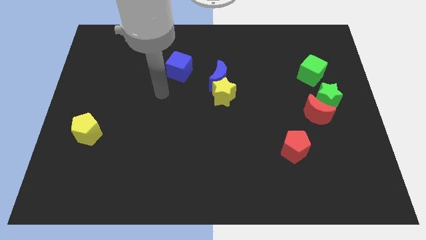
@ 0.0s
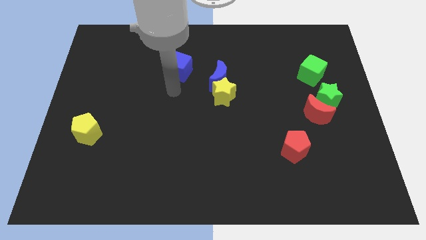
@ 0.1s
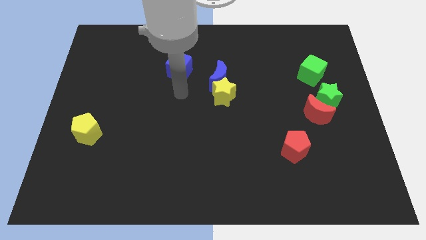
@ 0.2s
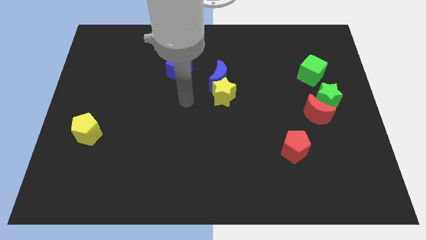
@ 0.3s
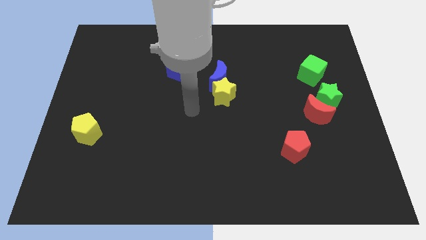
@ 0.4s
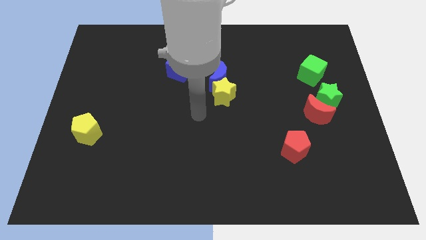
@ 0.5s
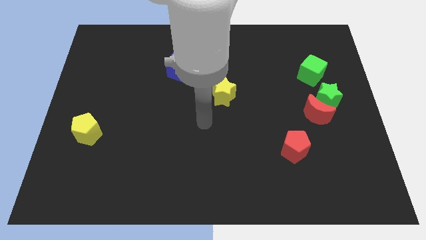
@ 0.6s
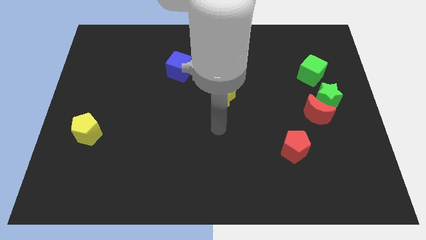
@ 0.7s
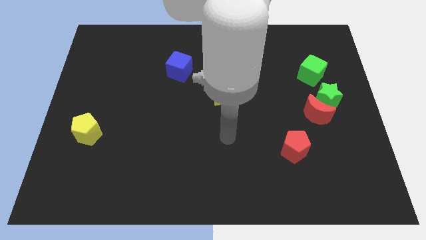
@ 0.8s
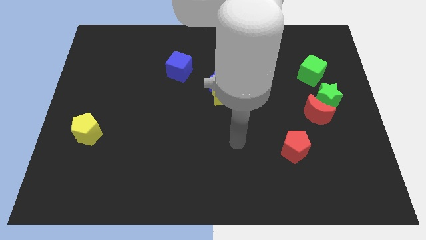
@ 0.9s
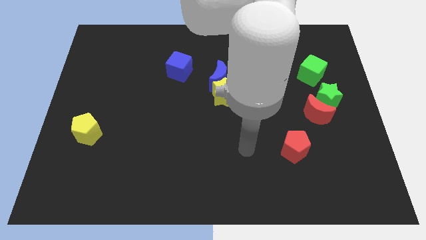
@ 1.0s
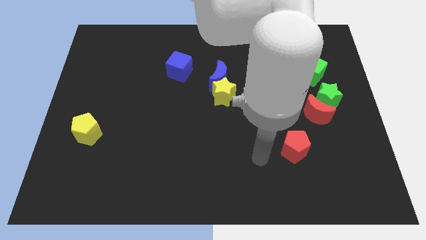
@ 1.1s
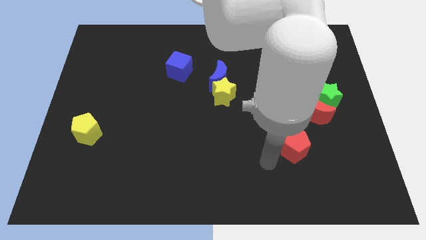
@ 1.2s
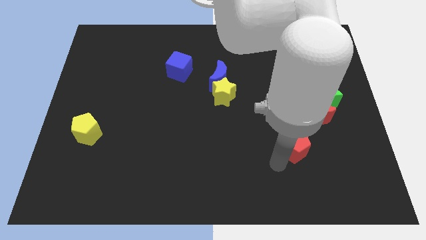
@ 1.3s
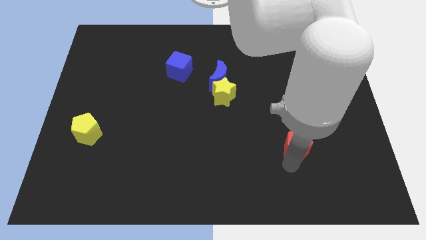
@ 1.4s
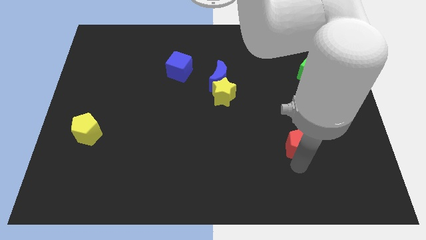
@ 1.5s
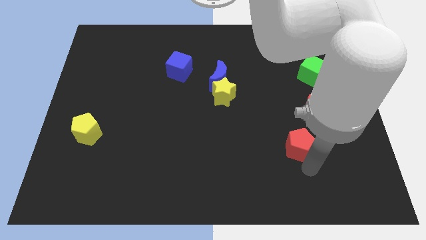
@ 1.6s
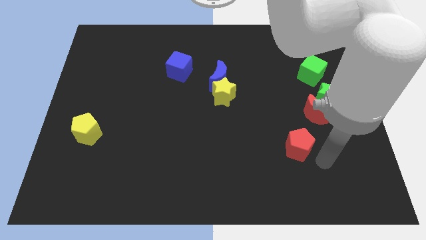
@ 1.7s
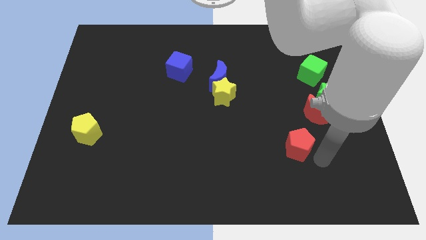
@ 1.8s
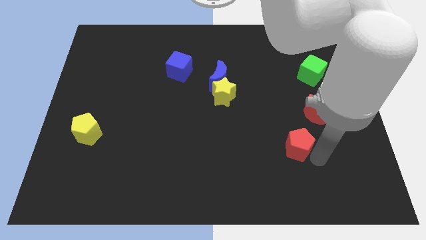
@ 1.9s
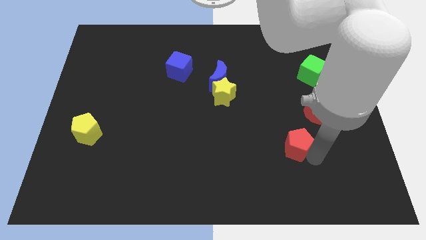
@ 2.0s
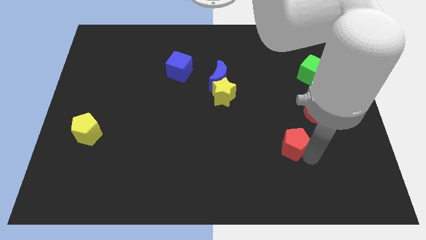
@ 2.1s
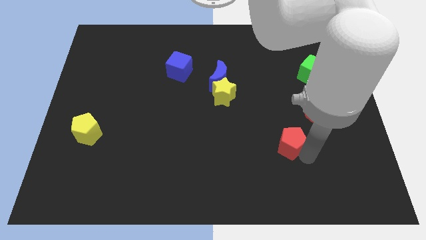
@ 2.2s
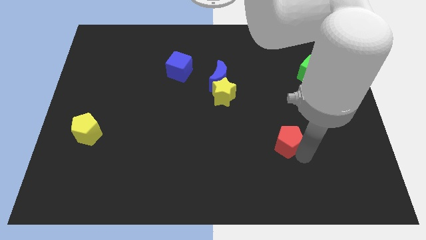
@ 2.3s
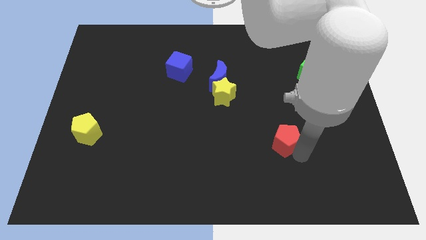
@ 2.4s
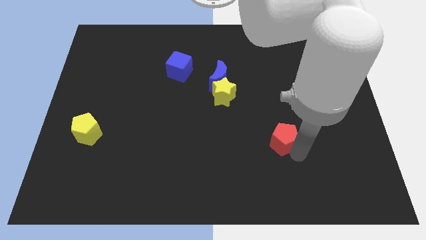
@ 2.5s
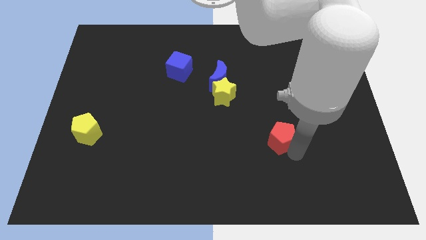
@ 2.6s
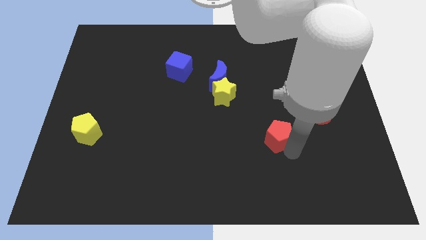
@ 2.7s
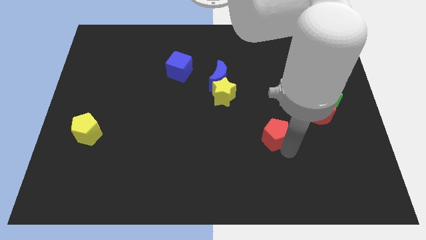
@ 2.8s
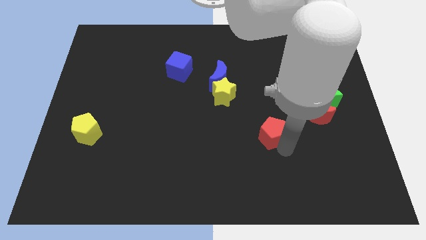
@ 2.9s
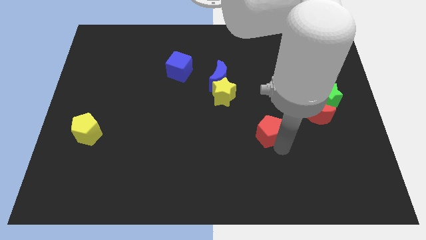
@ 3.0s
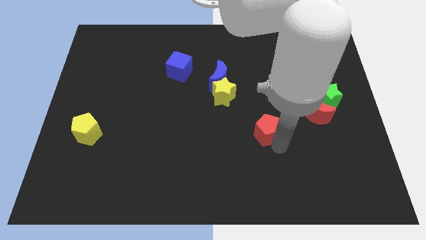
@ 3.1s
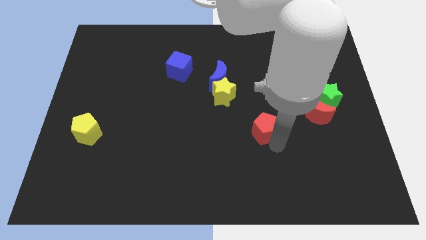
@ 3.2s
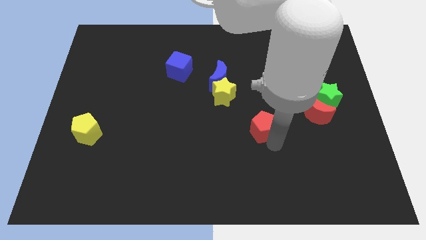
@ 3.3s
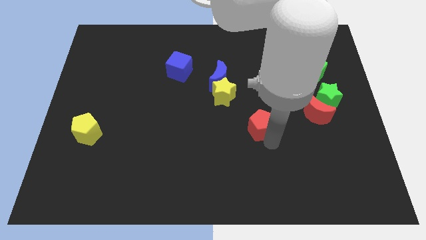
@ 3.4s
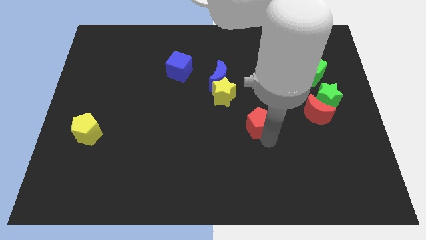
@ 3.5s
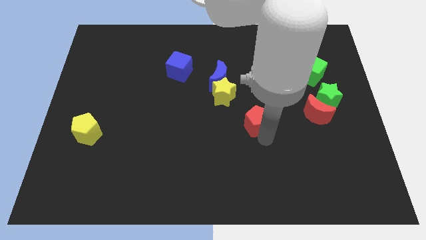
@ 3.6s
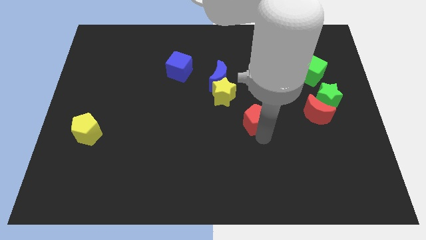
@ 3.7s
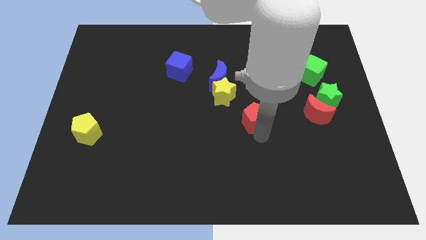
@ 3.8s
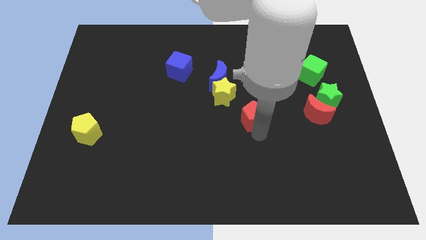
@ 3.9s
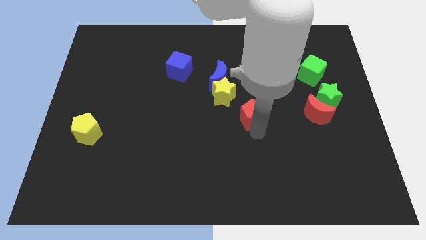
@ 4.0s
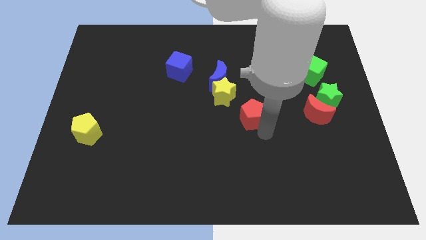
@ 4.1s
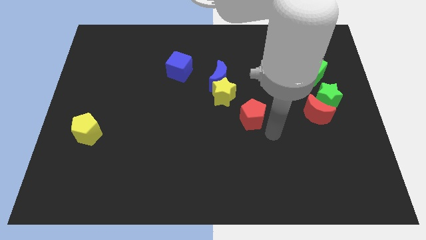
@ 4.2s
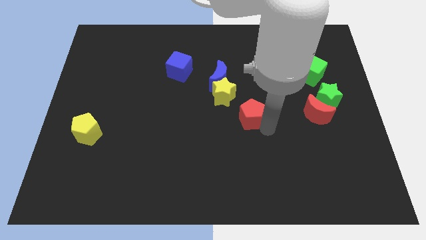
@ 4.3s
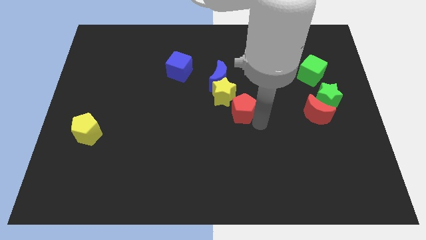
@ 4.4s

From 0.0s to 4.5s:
slide the red pentagon towards the yellow star

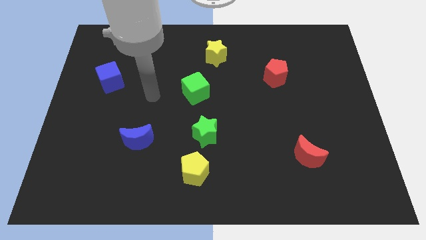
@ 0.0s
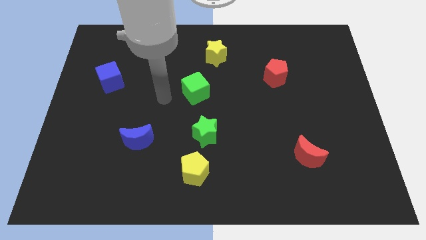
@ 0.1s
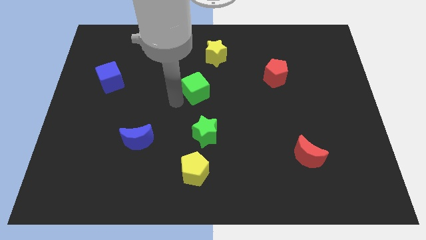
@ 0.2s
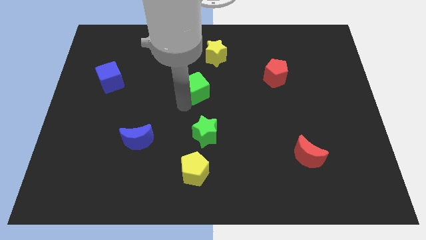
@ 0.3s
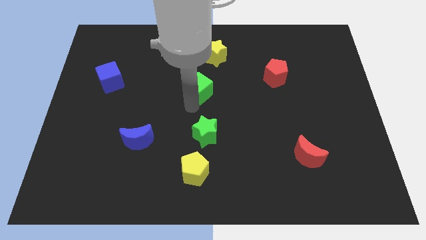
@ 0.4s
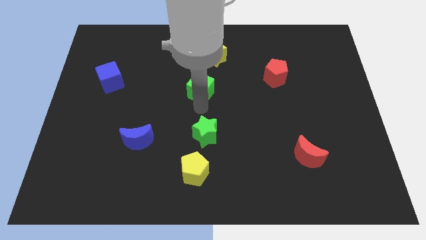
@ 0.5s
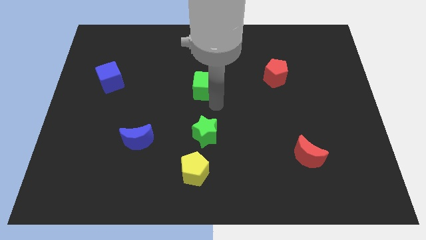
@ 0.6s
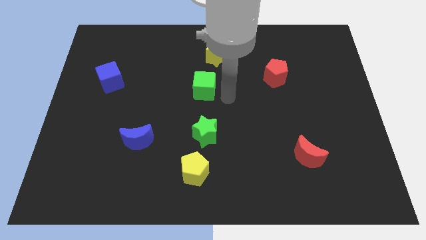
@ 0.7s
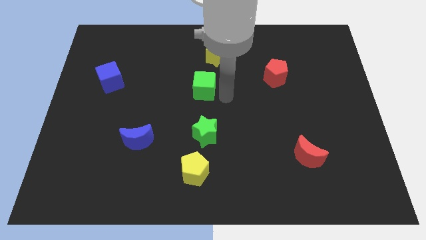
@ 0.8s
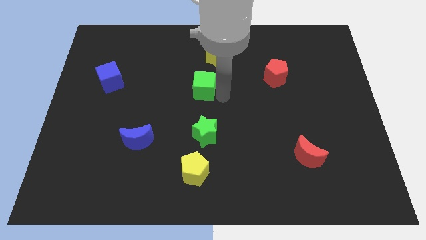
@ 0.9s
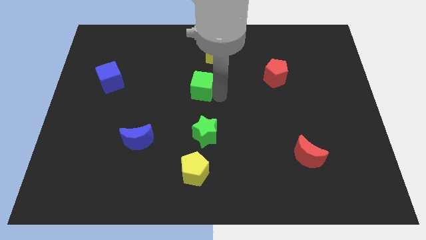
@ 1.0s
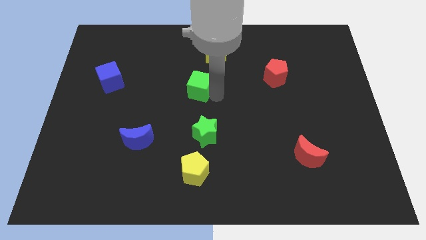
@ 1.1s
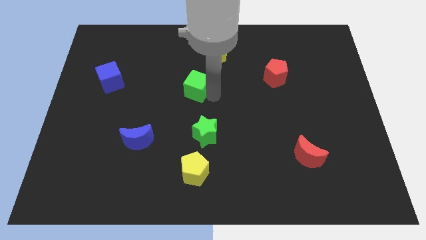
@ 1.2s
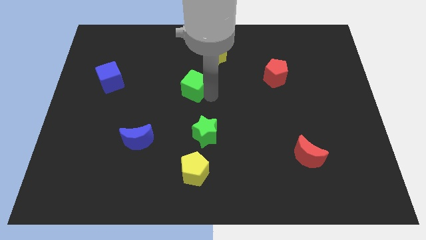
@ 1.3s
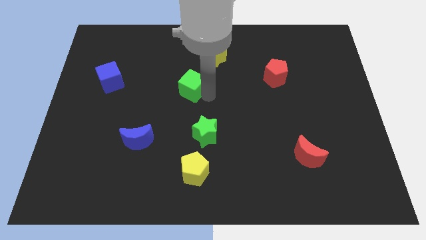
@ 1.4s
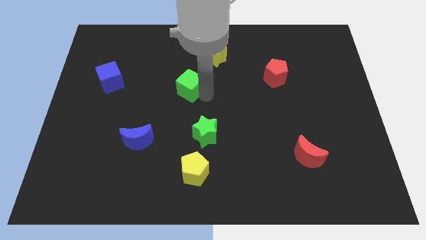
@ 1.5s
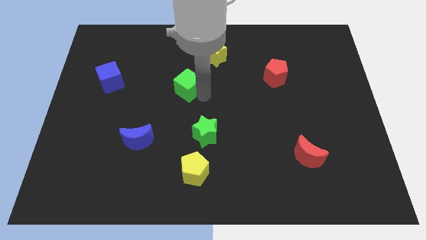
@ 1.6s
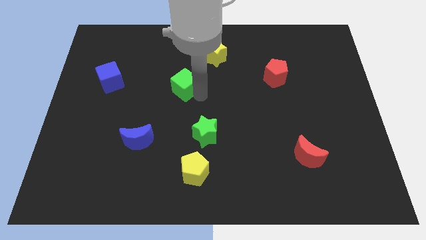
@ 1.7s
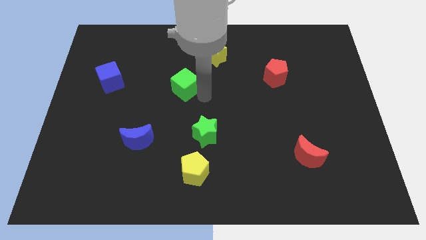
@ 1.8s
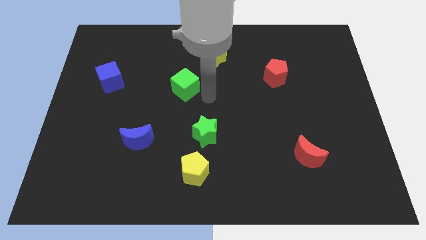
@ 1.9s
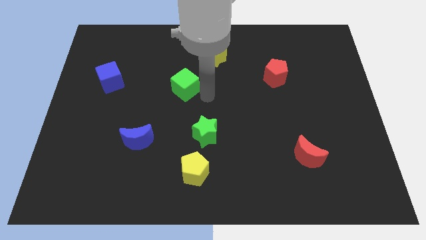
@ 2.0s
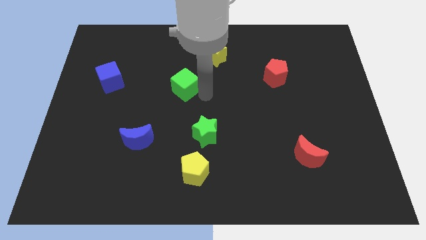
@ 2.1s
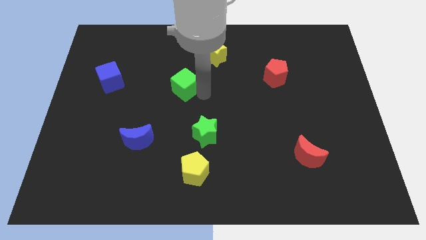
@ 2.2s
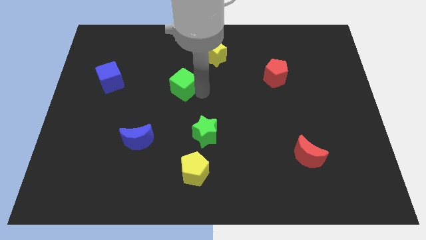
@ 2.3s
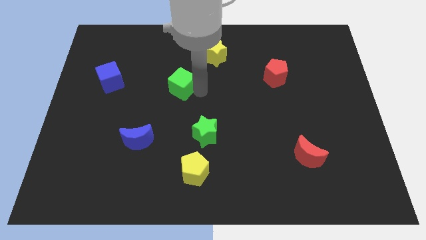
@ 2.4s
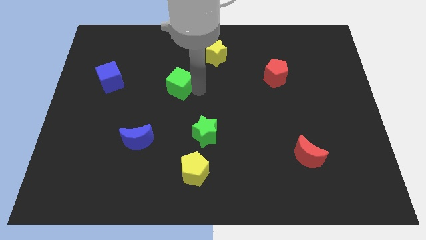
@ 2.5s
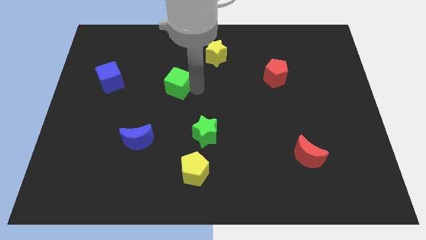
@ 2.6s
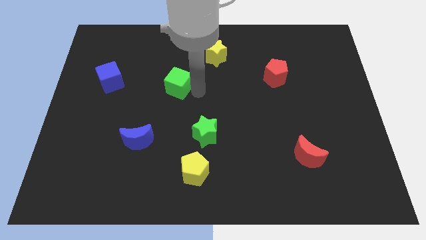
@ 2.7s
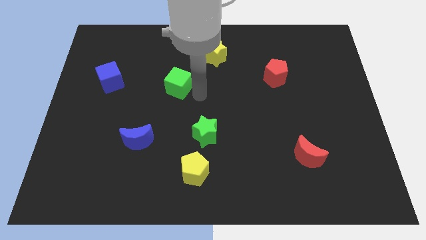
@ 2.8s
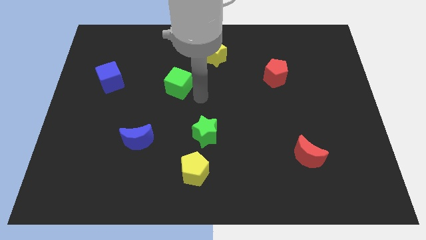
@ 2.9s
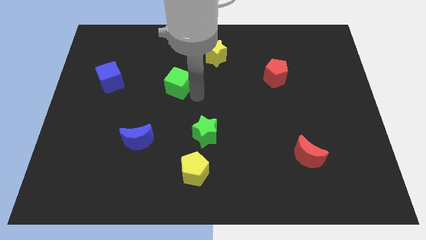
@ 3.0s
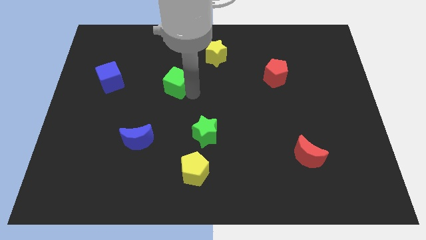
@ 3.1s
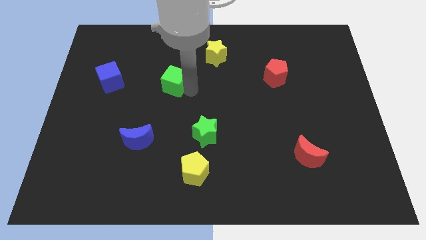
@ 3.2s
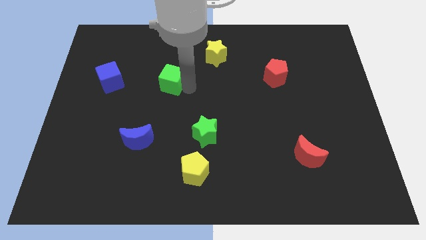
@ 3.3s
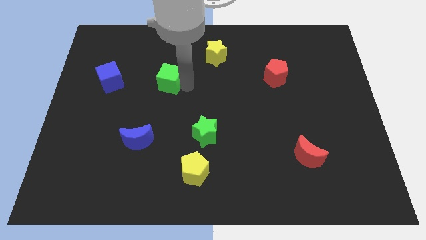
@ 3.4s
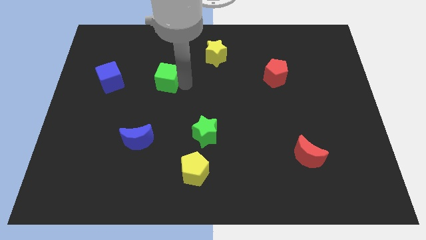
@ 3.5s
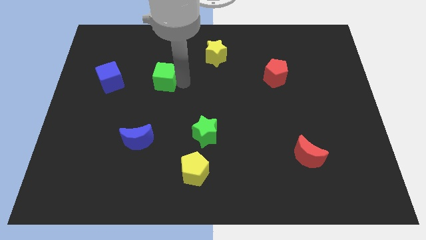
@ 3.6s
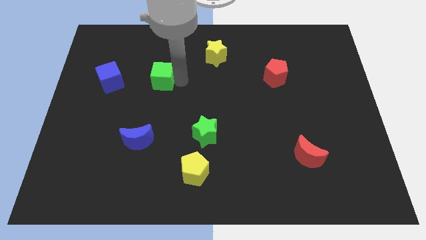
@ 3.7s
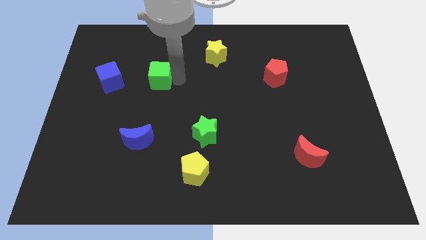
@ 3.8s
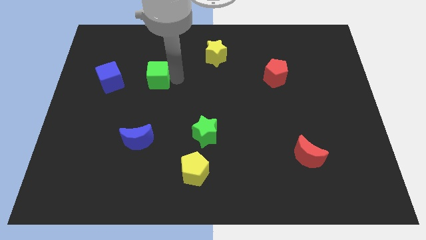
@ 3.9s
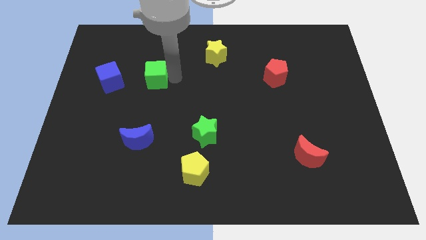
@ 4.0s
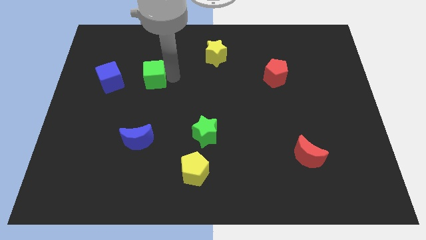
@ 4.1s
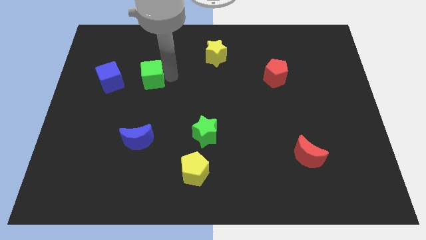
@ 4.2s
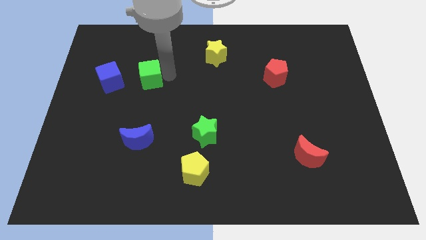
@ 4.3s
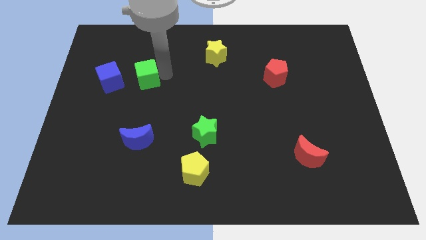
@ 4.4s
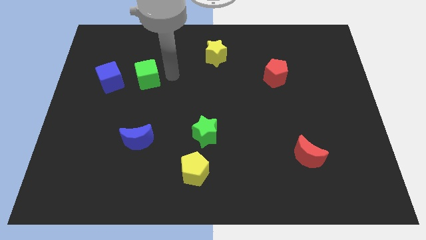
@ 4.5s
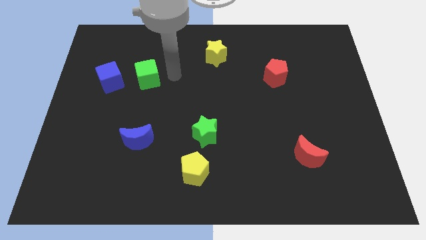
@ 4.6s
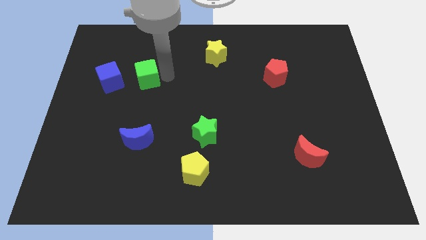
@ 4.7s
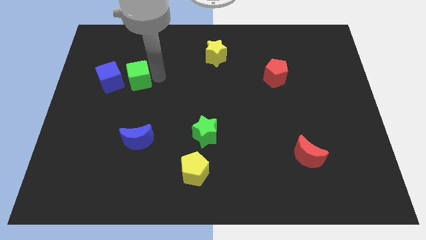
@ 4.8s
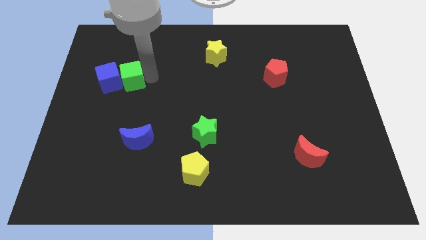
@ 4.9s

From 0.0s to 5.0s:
move the green cube towards the blue cube
